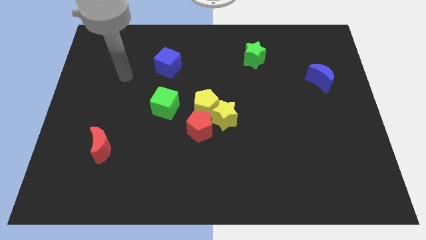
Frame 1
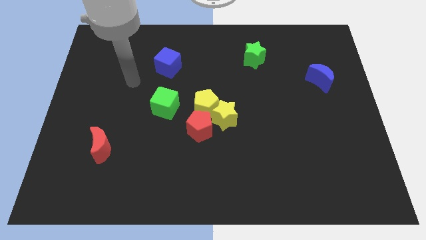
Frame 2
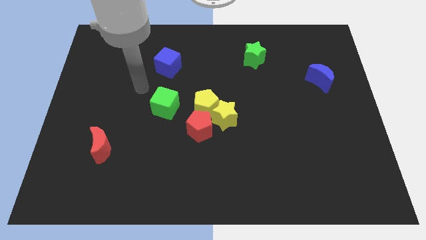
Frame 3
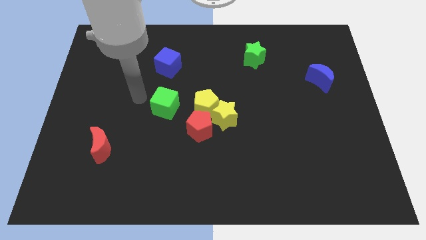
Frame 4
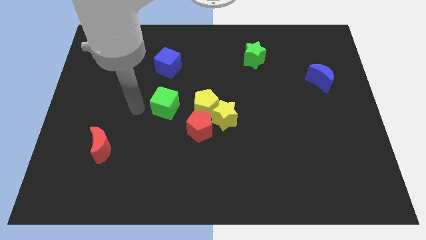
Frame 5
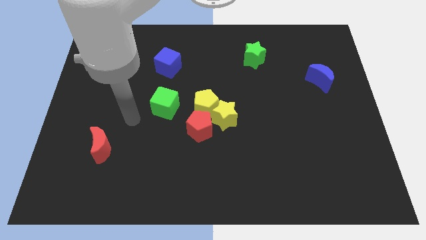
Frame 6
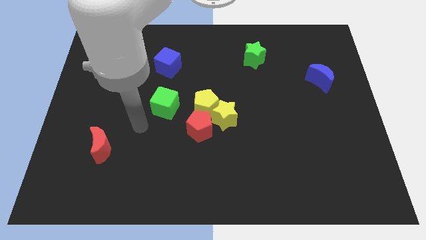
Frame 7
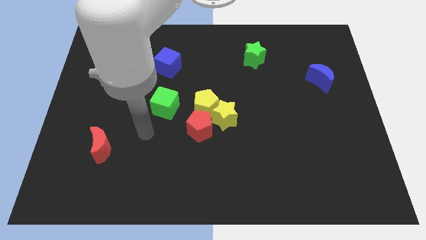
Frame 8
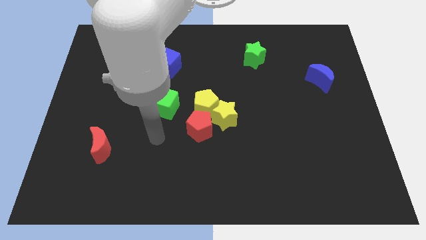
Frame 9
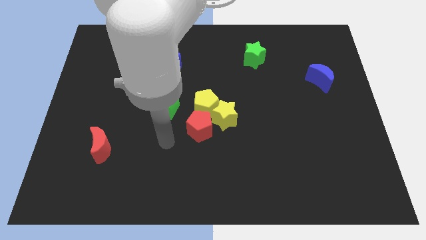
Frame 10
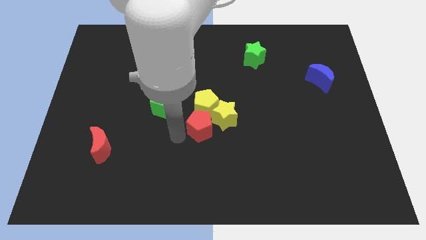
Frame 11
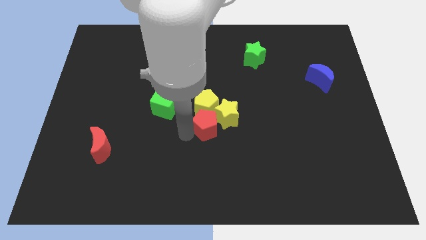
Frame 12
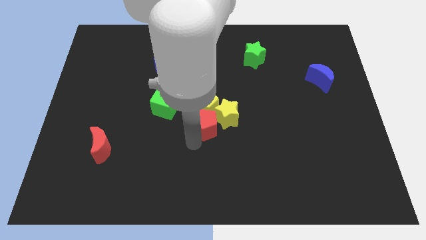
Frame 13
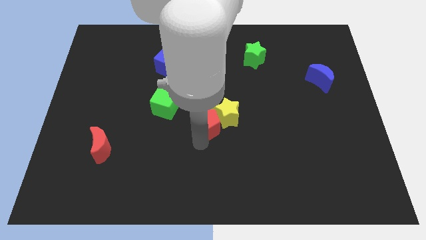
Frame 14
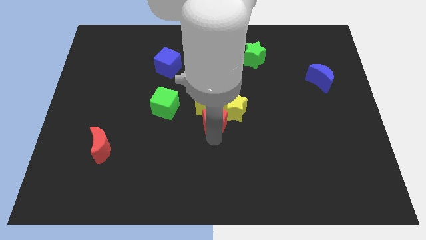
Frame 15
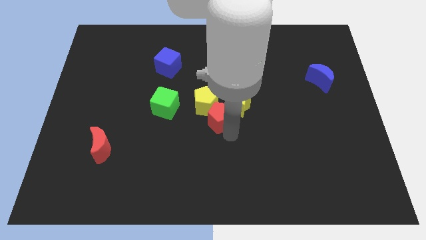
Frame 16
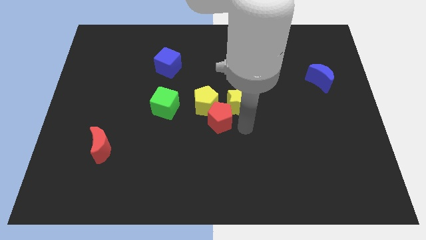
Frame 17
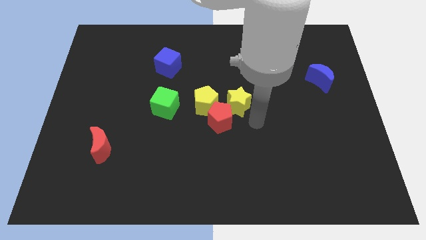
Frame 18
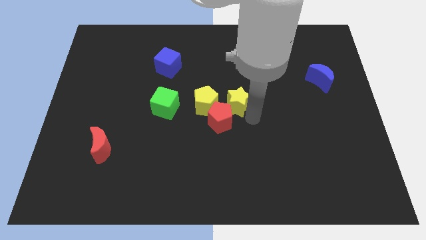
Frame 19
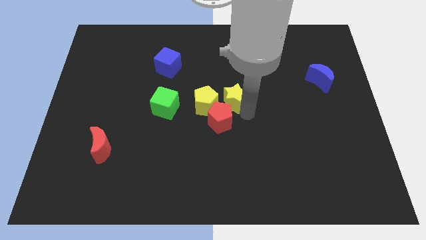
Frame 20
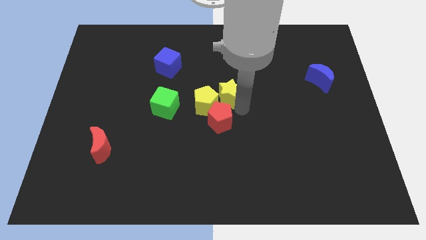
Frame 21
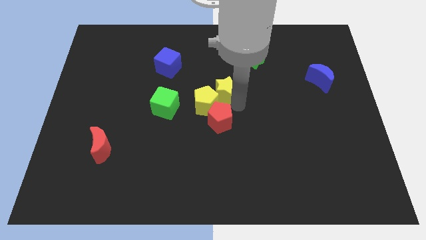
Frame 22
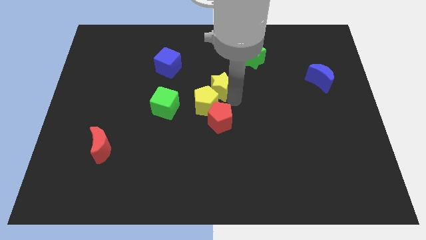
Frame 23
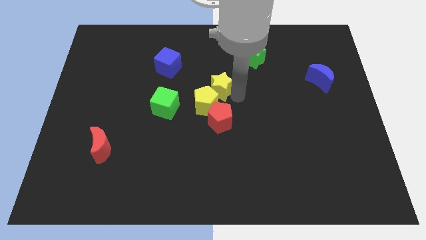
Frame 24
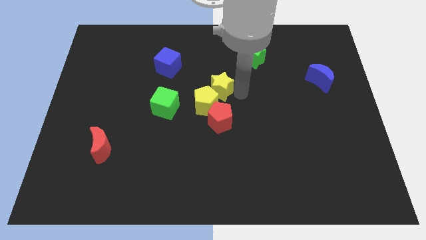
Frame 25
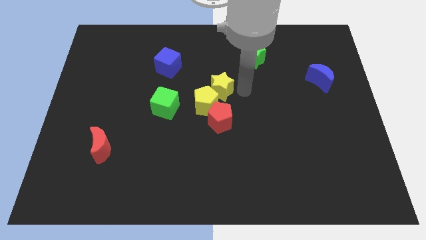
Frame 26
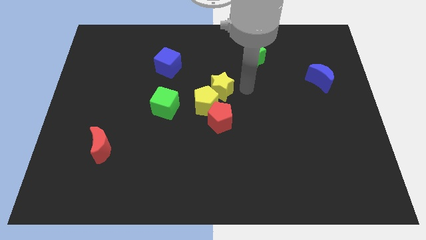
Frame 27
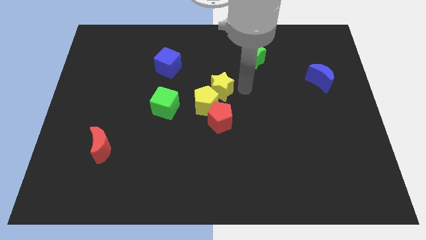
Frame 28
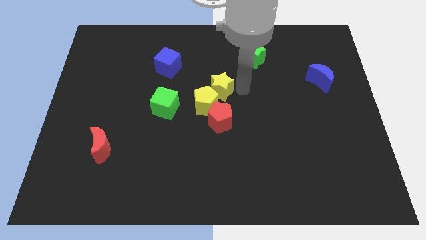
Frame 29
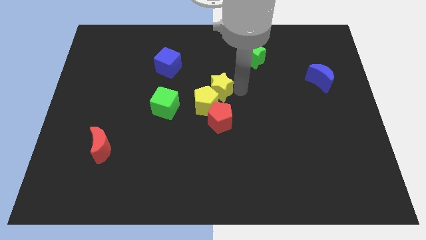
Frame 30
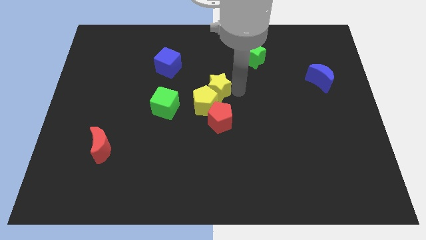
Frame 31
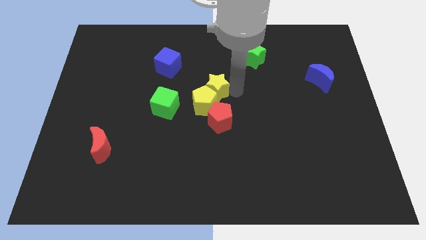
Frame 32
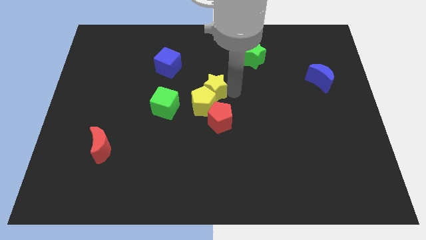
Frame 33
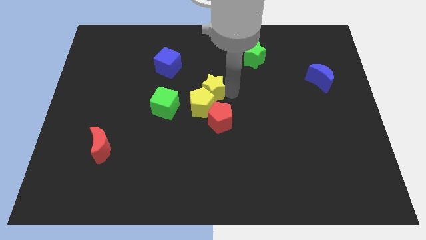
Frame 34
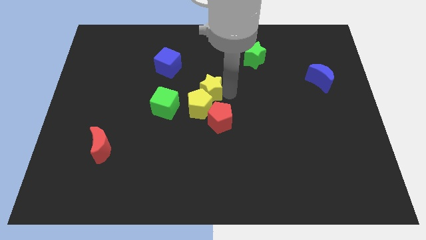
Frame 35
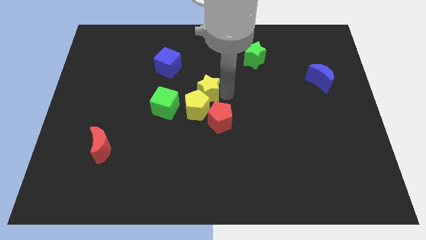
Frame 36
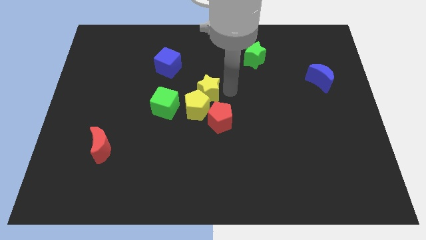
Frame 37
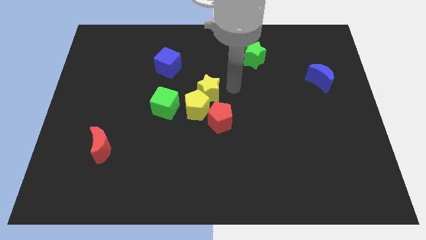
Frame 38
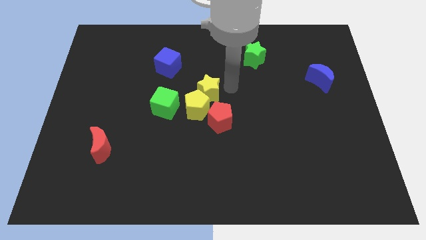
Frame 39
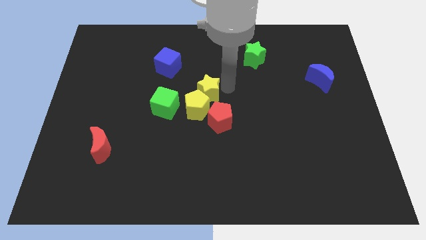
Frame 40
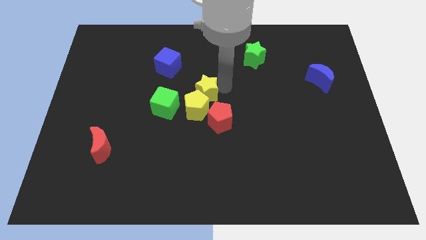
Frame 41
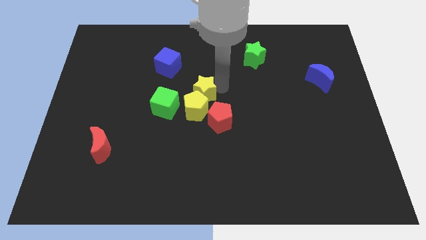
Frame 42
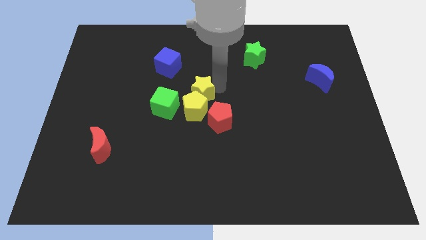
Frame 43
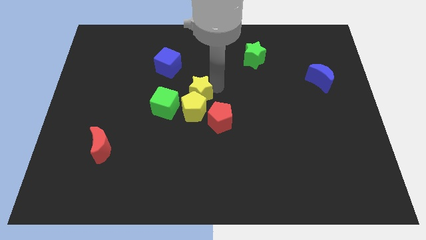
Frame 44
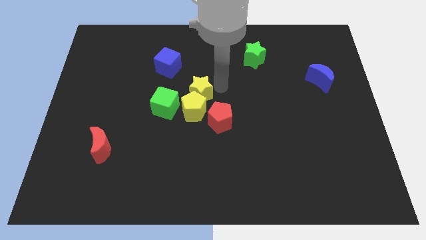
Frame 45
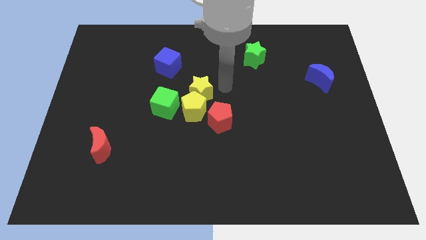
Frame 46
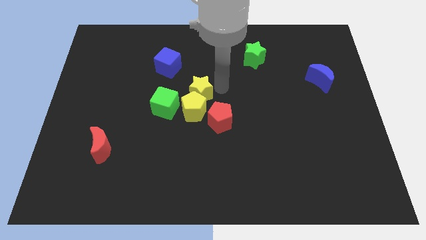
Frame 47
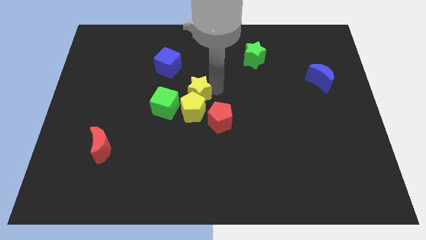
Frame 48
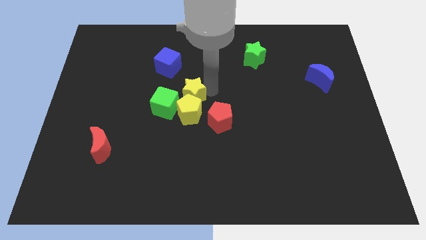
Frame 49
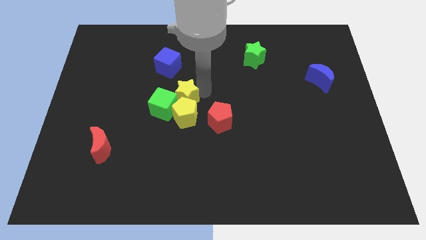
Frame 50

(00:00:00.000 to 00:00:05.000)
put the yellow star to the green cube

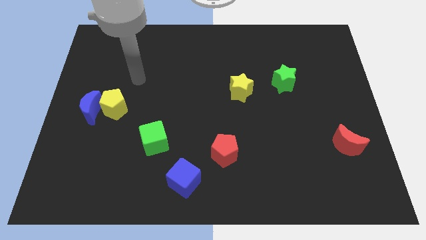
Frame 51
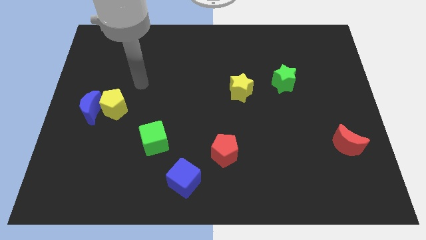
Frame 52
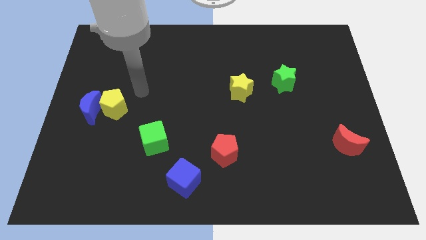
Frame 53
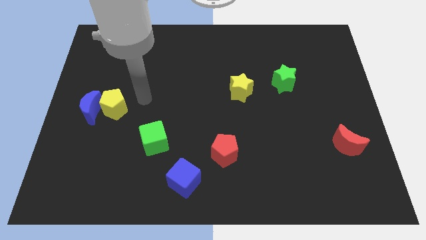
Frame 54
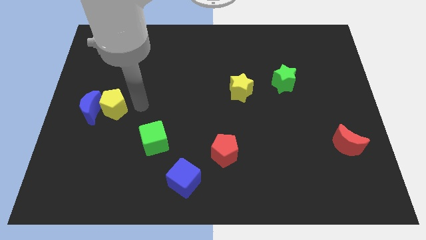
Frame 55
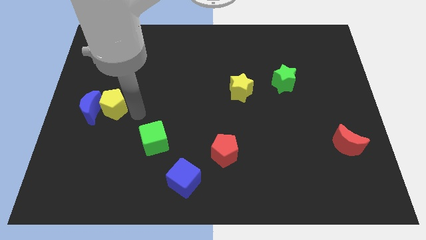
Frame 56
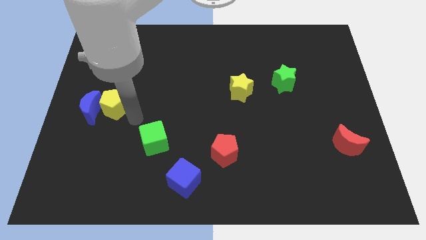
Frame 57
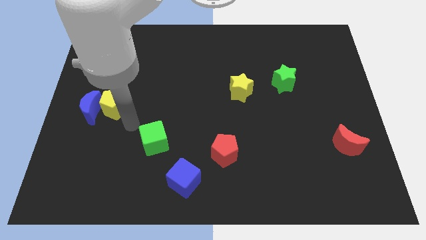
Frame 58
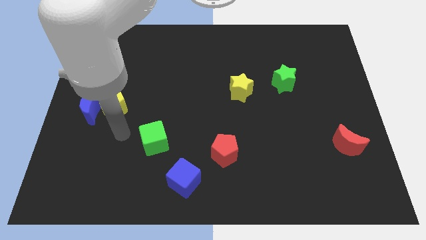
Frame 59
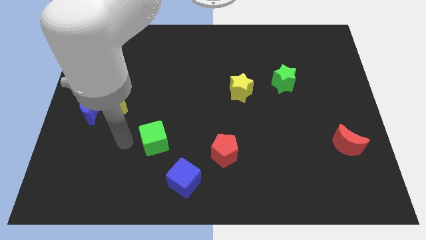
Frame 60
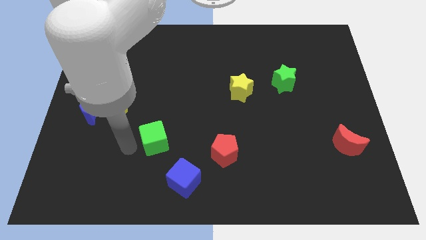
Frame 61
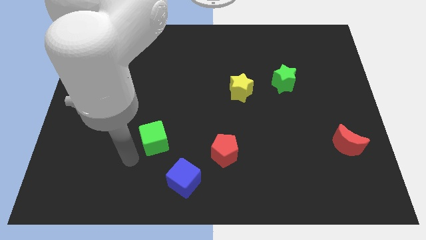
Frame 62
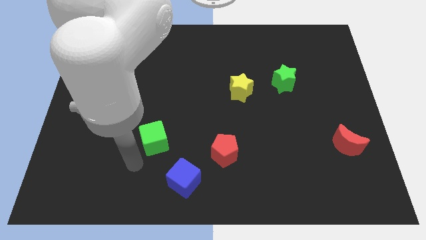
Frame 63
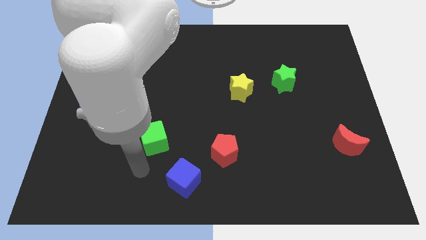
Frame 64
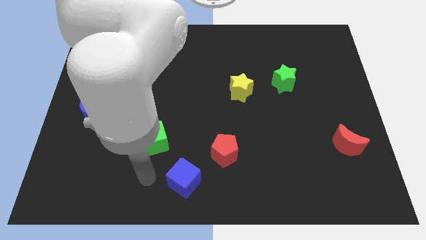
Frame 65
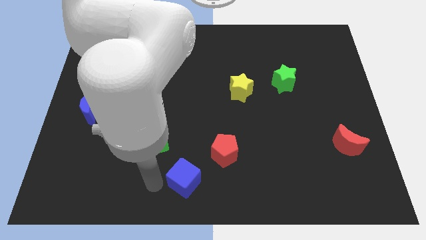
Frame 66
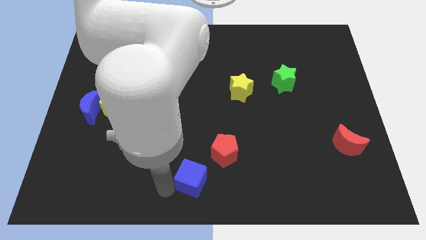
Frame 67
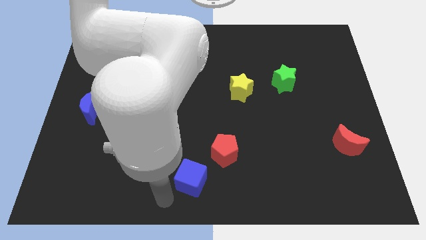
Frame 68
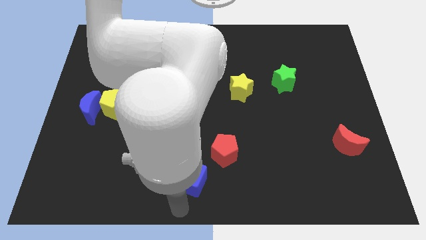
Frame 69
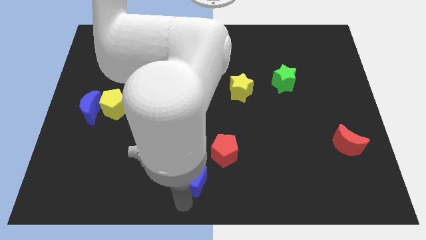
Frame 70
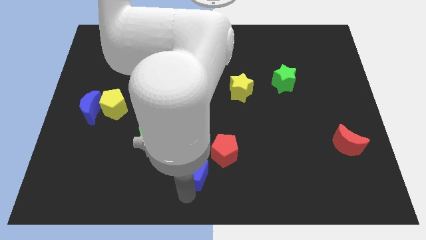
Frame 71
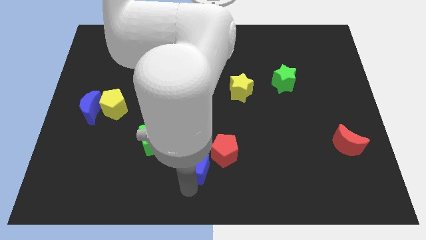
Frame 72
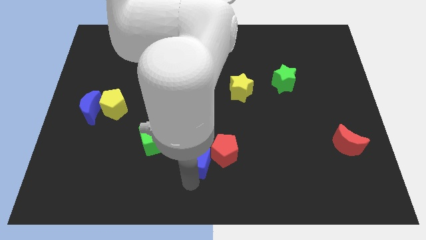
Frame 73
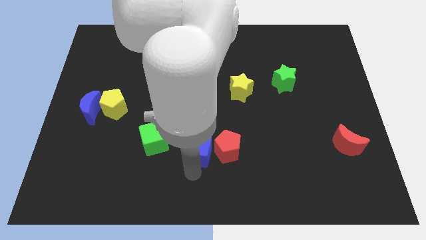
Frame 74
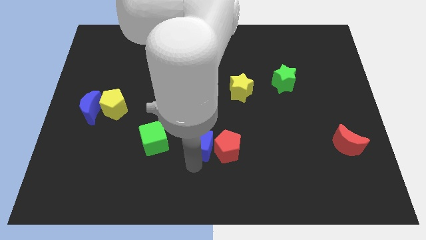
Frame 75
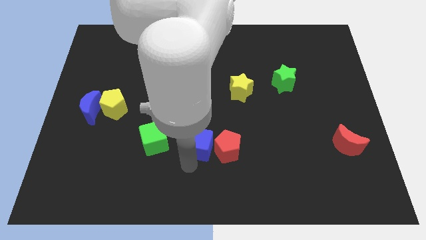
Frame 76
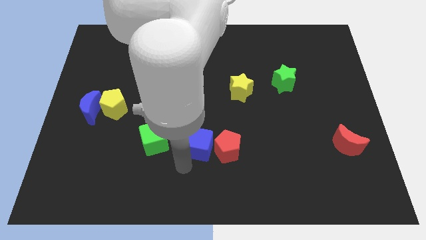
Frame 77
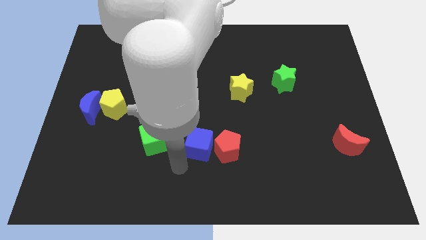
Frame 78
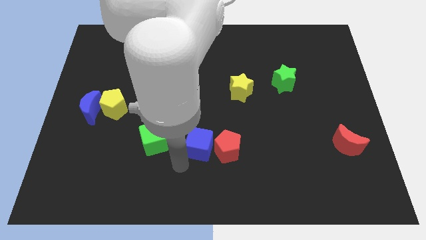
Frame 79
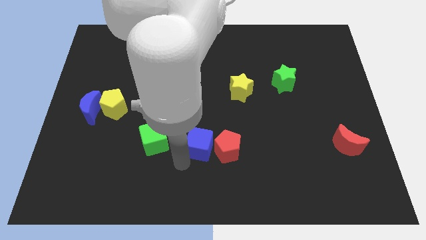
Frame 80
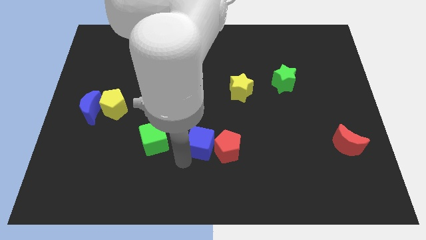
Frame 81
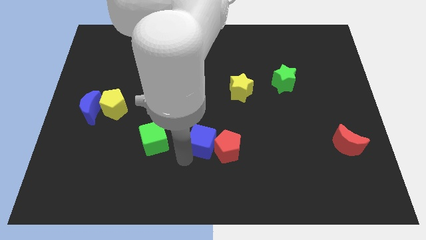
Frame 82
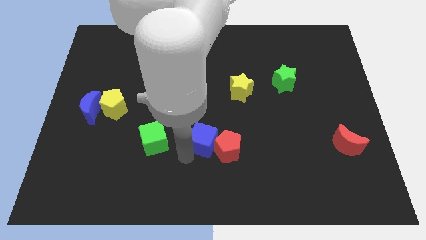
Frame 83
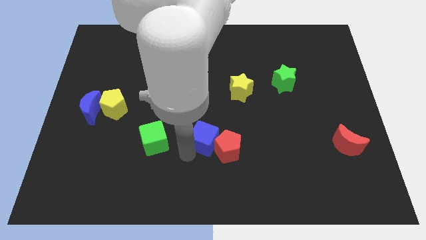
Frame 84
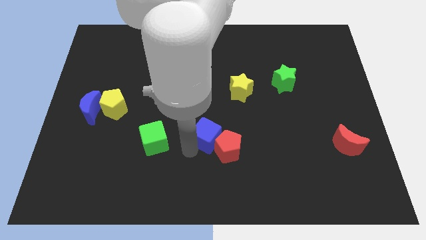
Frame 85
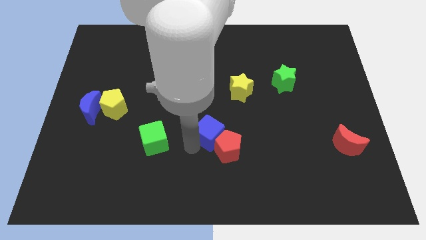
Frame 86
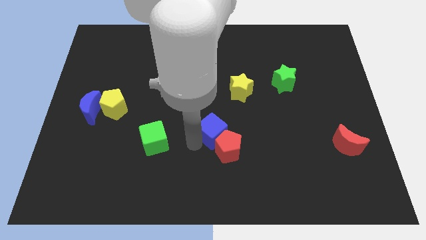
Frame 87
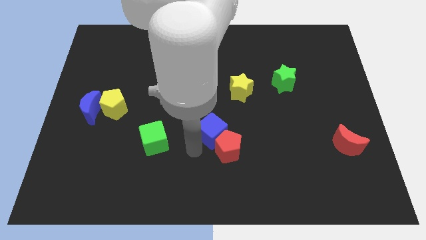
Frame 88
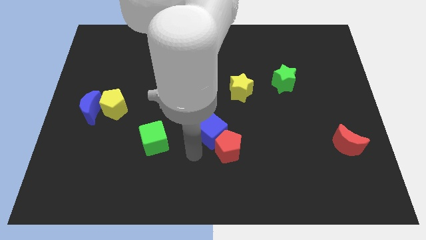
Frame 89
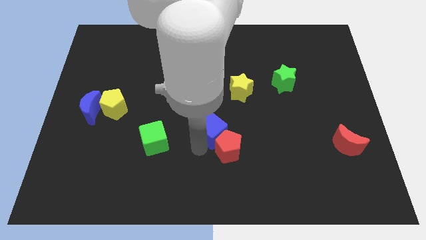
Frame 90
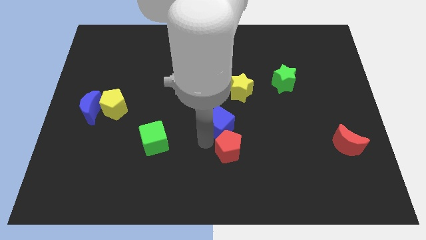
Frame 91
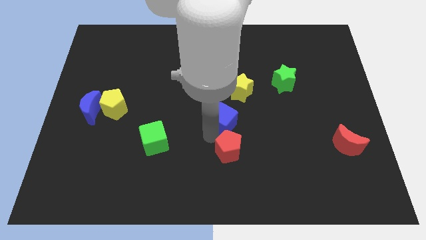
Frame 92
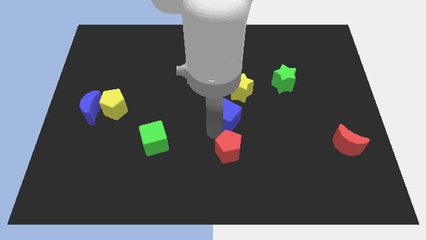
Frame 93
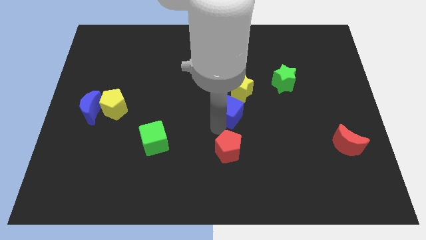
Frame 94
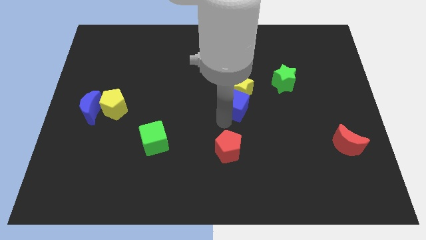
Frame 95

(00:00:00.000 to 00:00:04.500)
move the blue cube close to the yellow star
